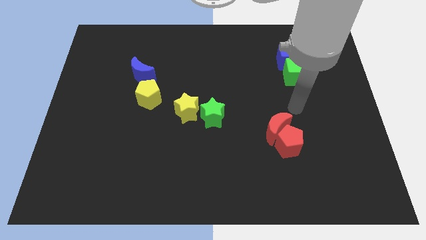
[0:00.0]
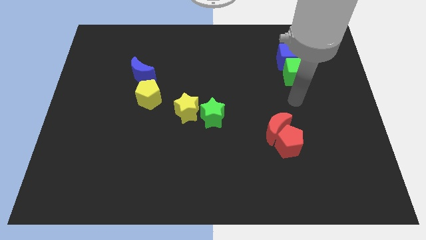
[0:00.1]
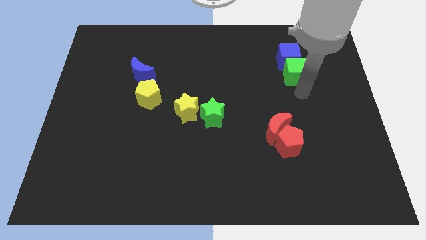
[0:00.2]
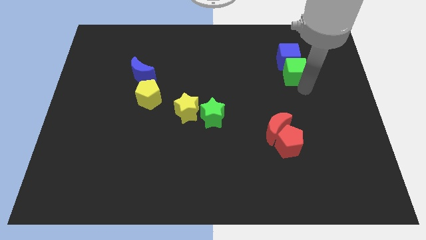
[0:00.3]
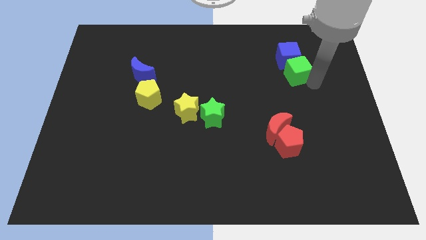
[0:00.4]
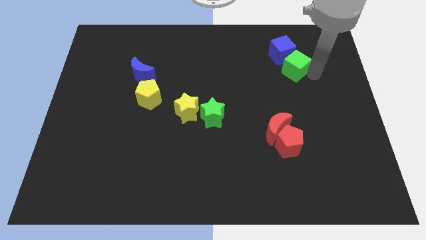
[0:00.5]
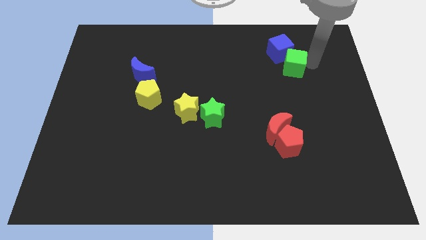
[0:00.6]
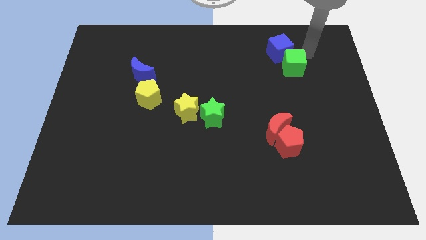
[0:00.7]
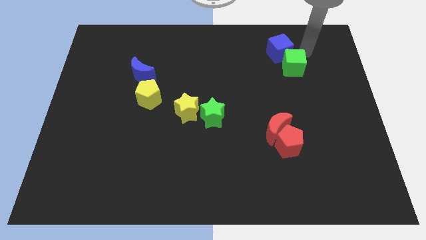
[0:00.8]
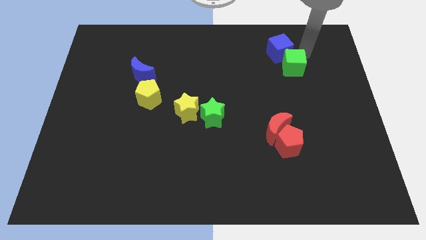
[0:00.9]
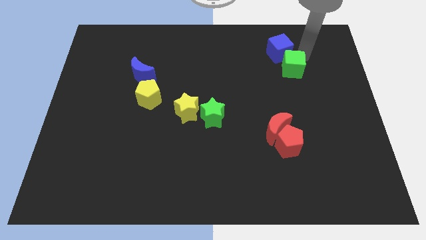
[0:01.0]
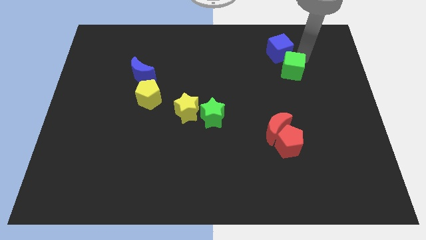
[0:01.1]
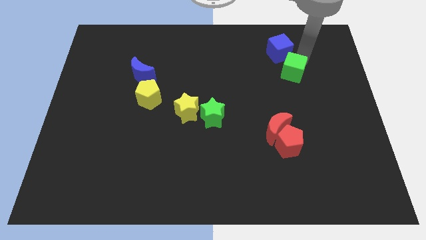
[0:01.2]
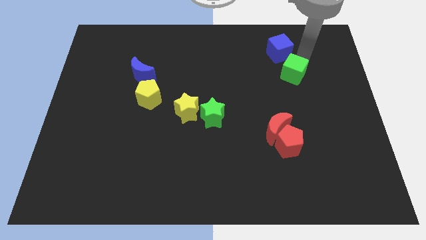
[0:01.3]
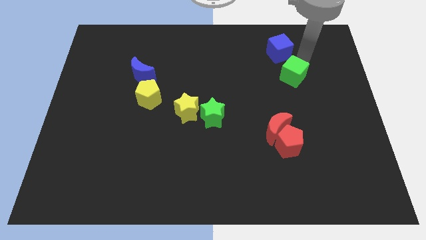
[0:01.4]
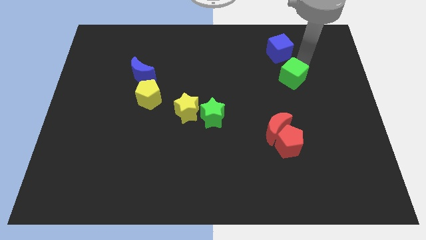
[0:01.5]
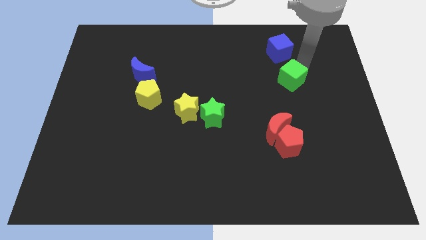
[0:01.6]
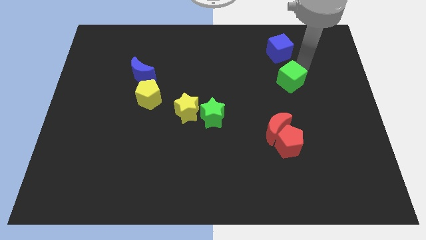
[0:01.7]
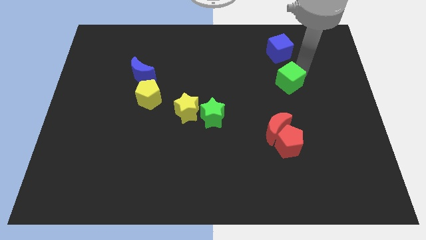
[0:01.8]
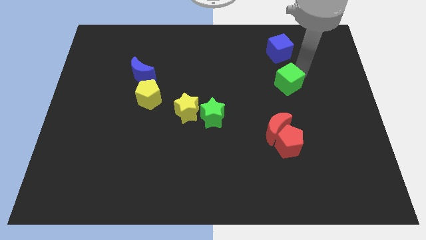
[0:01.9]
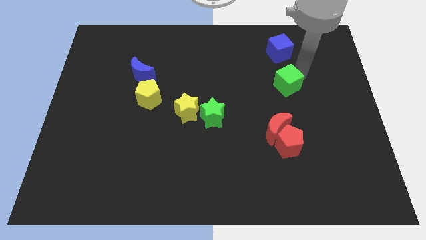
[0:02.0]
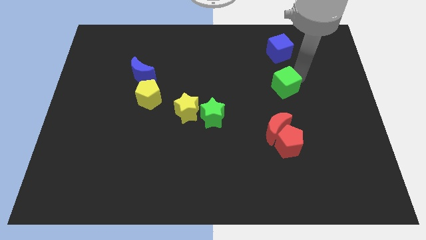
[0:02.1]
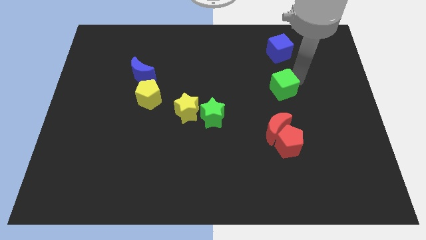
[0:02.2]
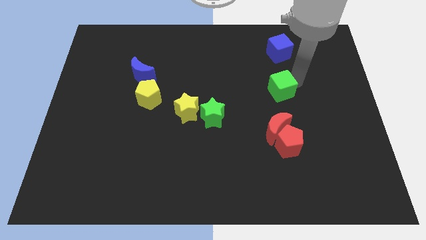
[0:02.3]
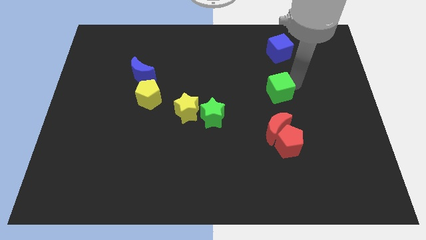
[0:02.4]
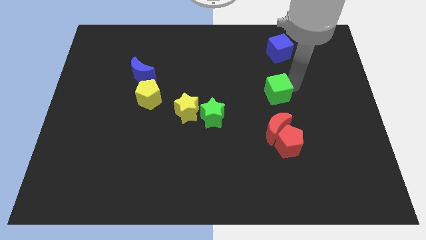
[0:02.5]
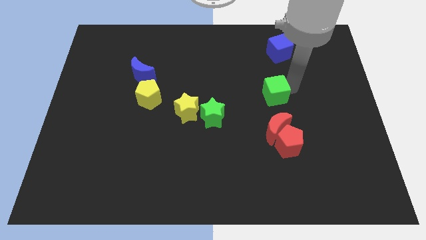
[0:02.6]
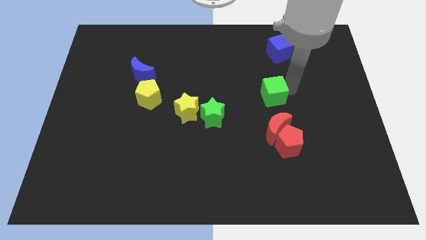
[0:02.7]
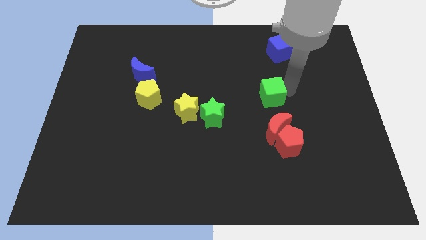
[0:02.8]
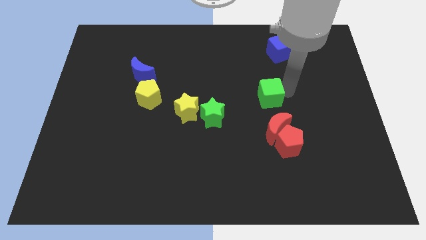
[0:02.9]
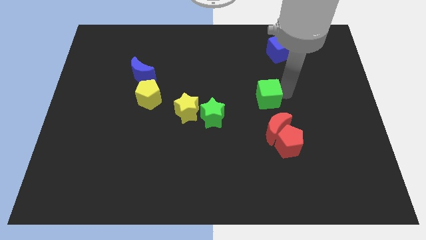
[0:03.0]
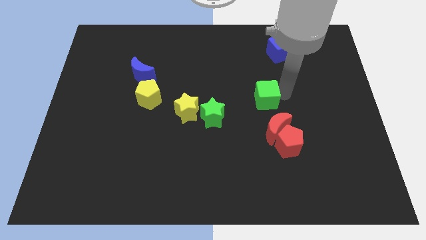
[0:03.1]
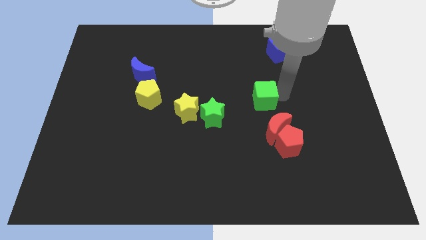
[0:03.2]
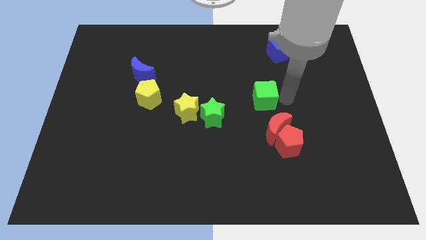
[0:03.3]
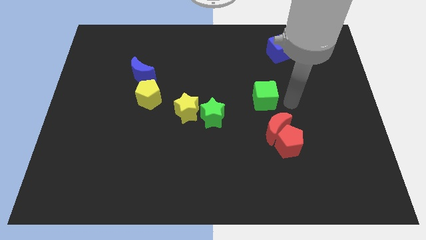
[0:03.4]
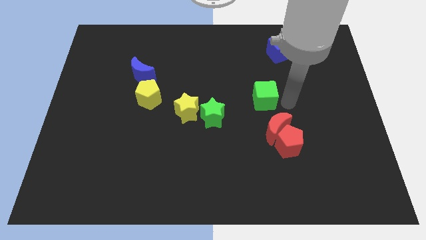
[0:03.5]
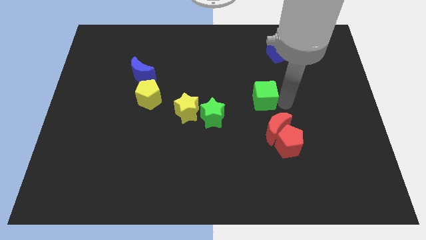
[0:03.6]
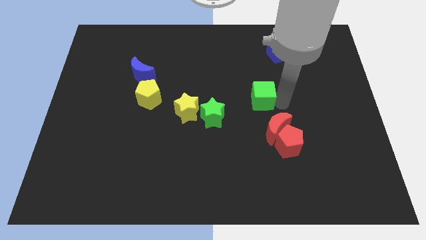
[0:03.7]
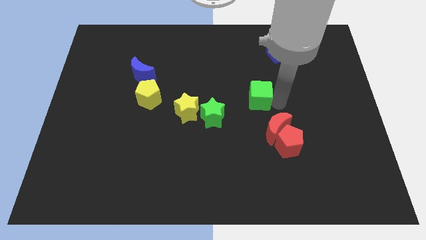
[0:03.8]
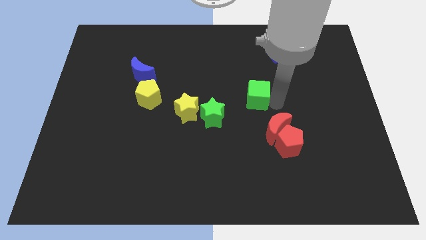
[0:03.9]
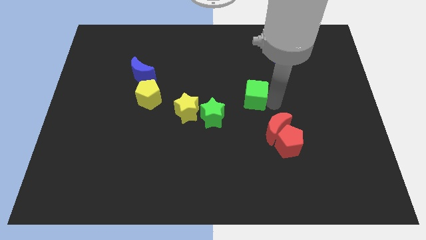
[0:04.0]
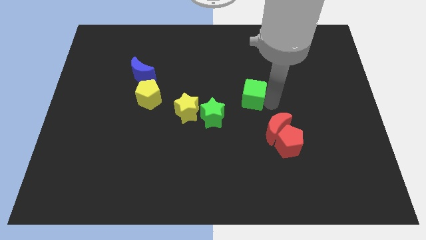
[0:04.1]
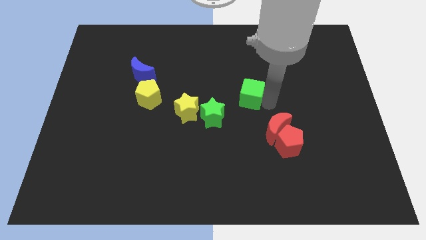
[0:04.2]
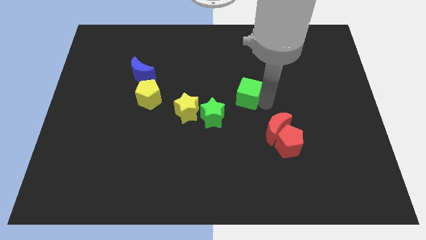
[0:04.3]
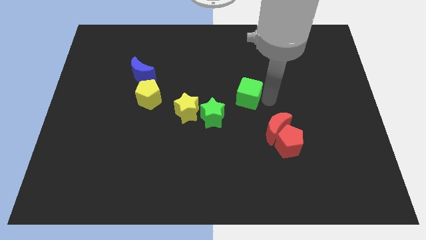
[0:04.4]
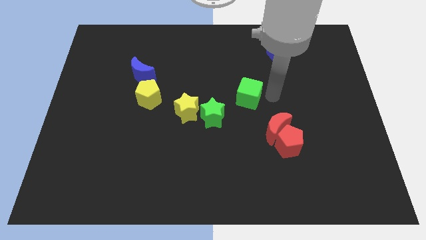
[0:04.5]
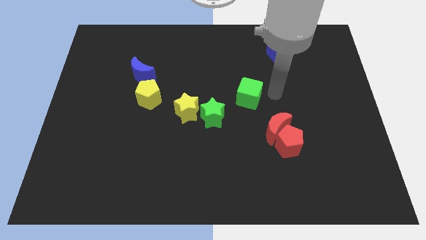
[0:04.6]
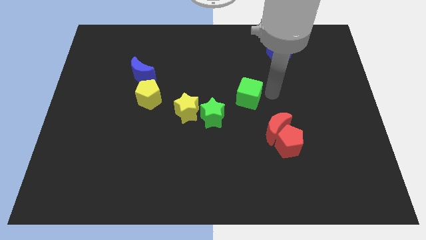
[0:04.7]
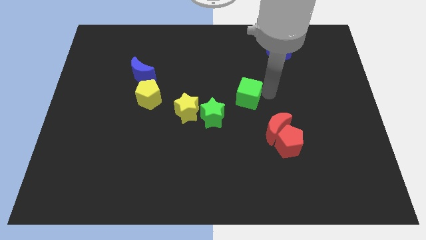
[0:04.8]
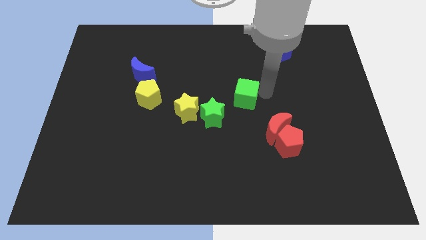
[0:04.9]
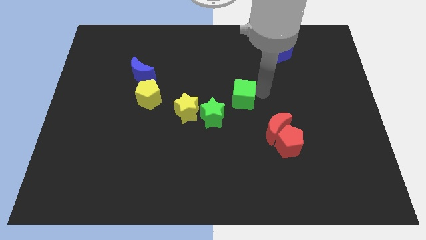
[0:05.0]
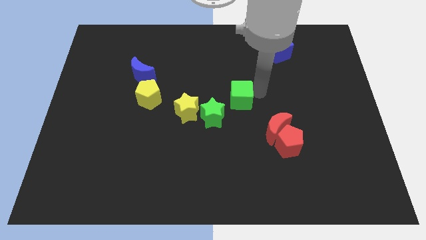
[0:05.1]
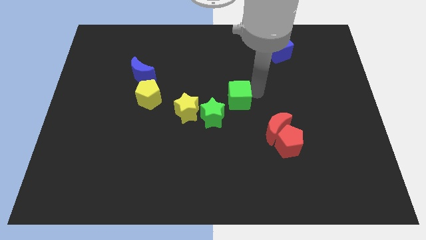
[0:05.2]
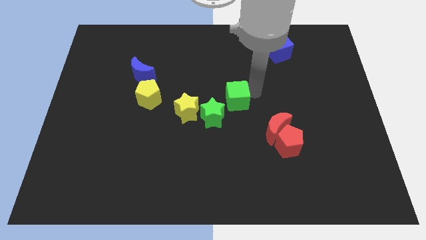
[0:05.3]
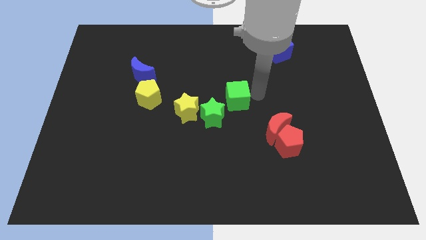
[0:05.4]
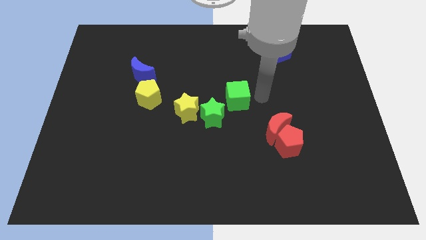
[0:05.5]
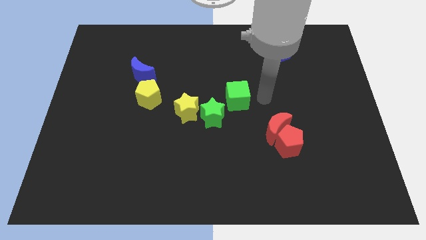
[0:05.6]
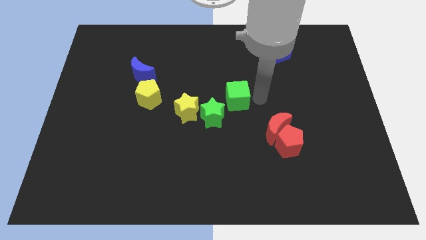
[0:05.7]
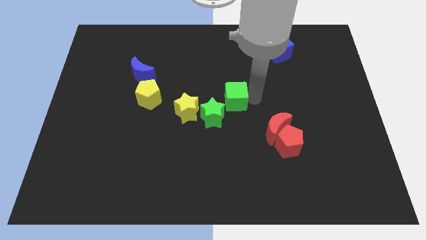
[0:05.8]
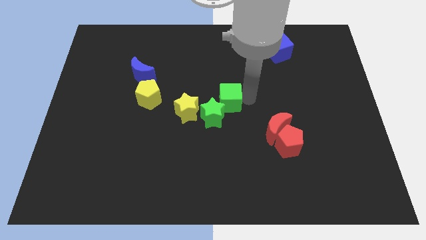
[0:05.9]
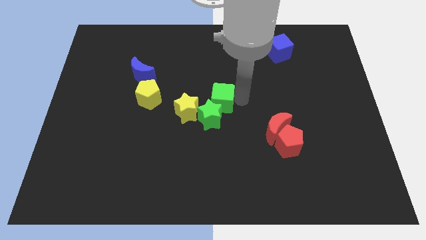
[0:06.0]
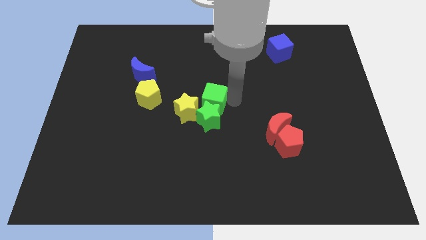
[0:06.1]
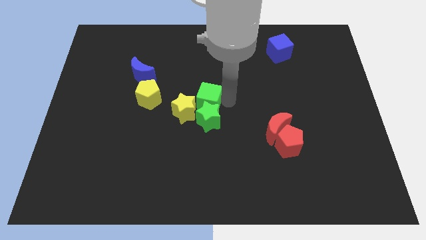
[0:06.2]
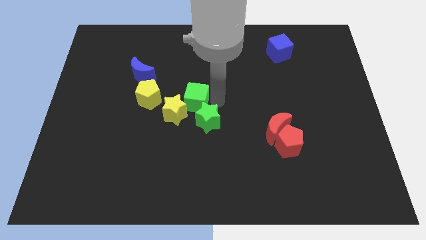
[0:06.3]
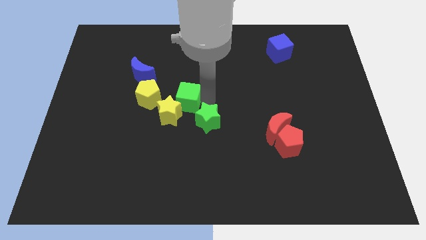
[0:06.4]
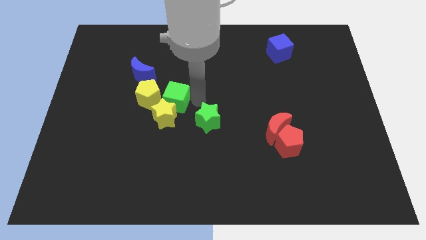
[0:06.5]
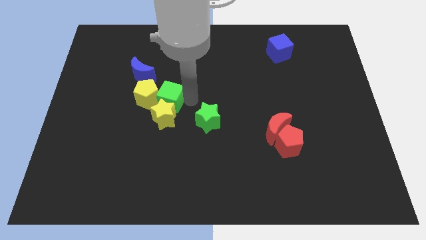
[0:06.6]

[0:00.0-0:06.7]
move the green cube to the top left side of the yellow star

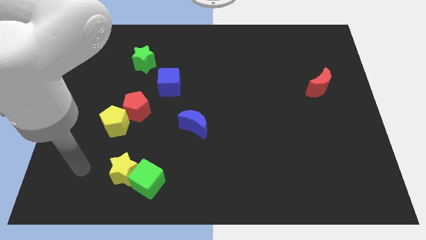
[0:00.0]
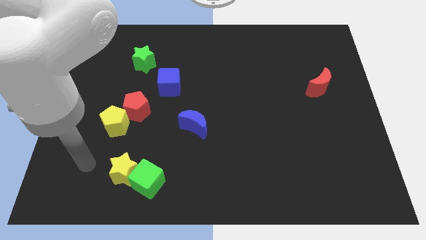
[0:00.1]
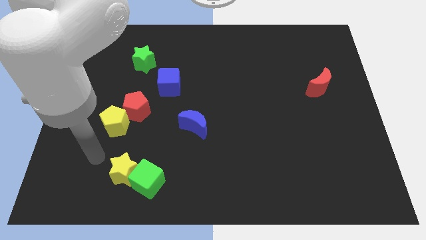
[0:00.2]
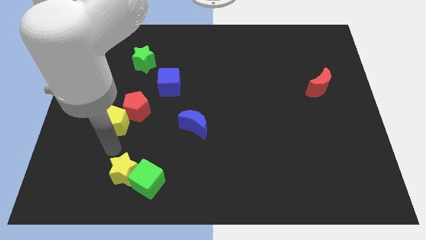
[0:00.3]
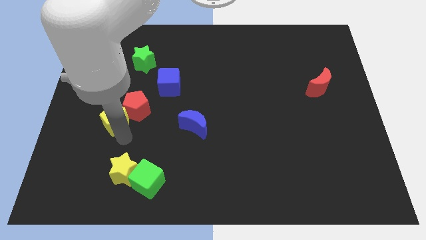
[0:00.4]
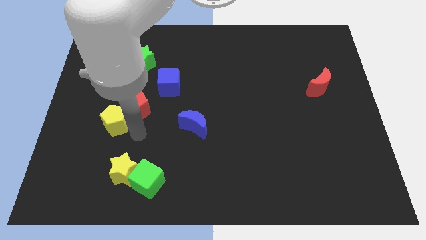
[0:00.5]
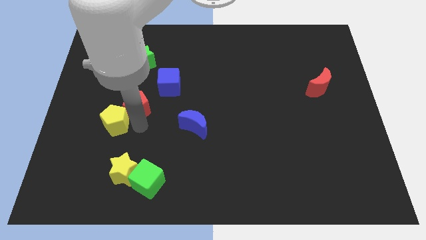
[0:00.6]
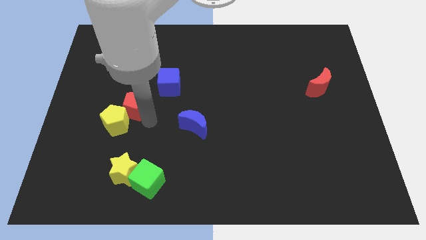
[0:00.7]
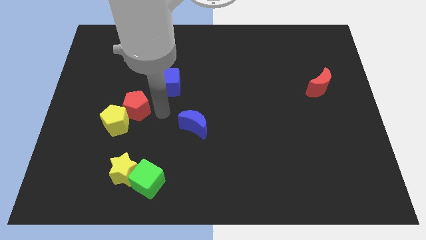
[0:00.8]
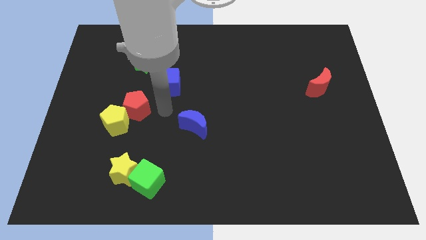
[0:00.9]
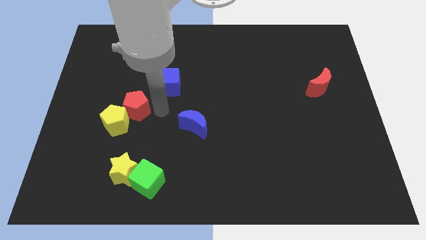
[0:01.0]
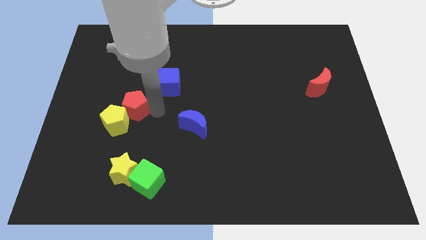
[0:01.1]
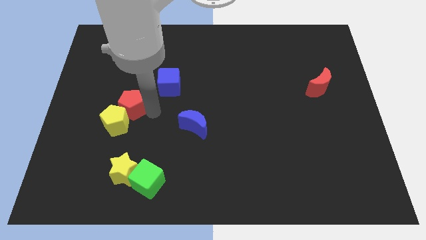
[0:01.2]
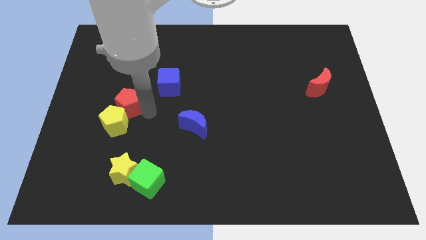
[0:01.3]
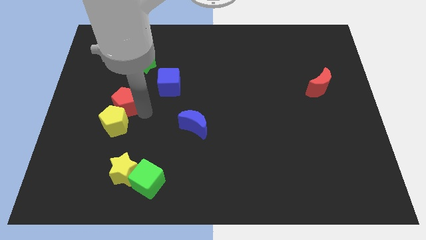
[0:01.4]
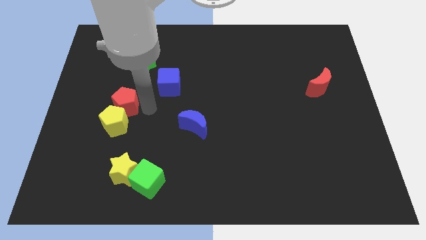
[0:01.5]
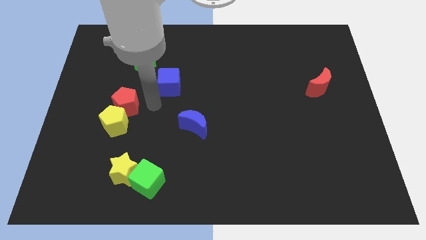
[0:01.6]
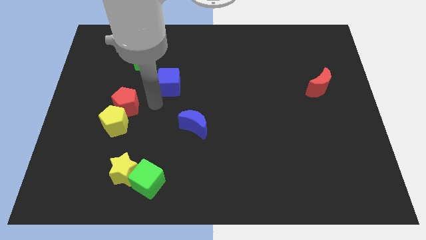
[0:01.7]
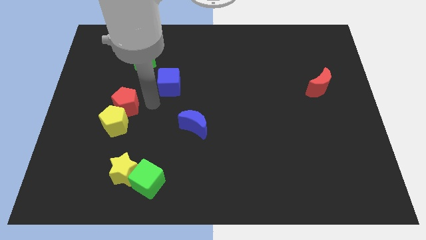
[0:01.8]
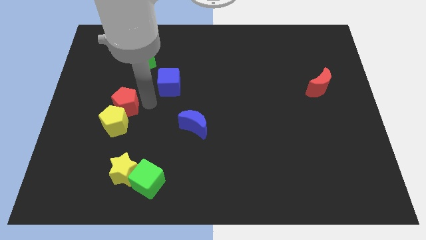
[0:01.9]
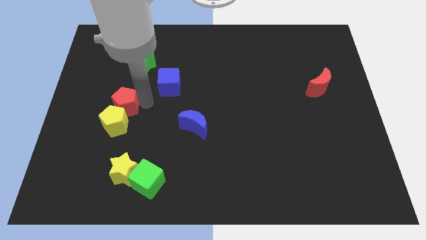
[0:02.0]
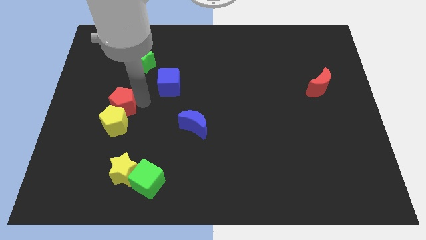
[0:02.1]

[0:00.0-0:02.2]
push the red pentagon to the top left side of the yellow pentagon
